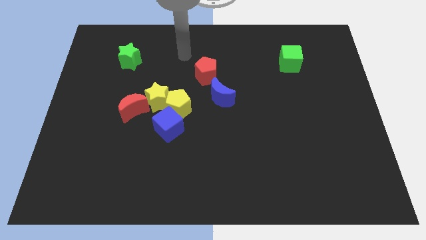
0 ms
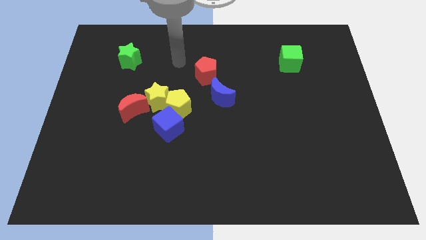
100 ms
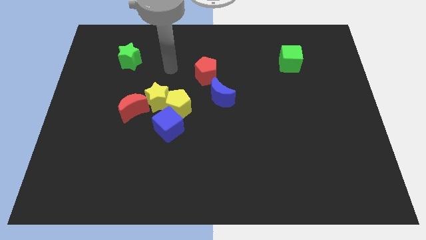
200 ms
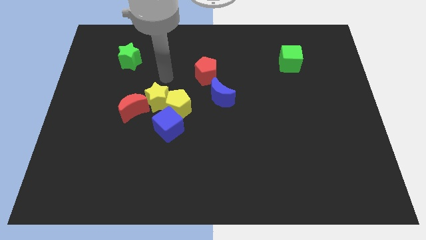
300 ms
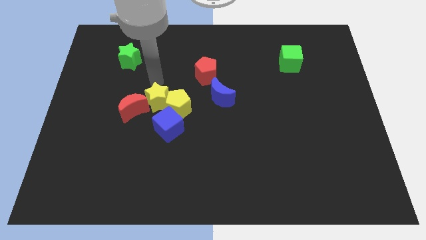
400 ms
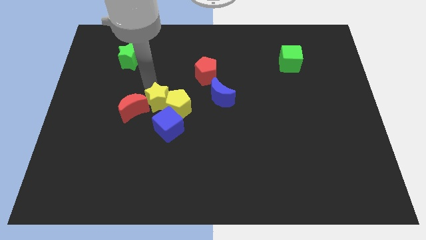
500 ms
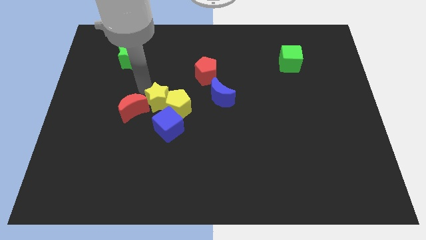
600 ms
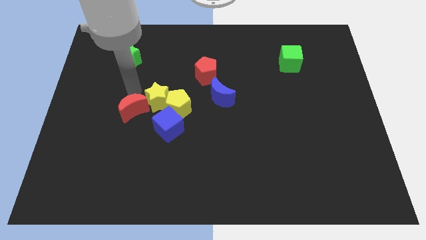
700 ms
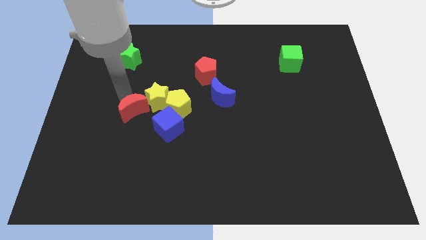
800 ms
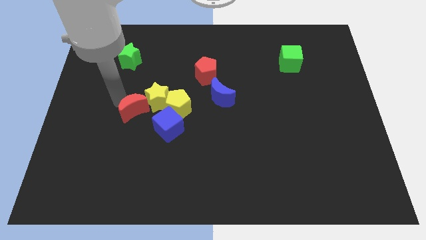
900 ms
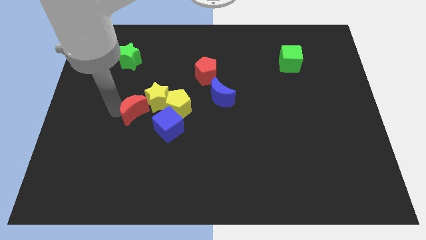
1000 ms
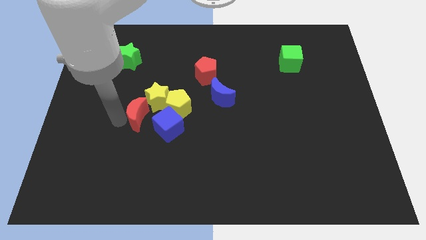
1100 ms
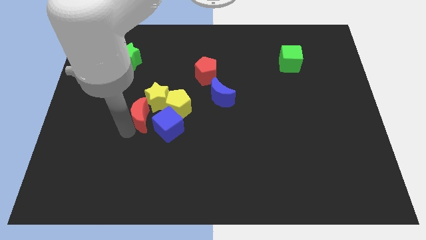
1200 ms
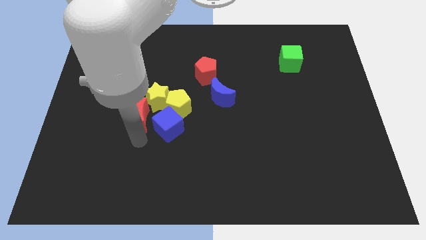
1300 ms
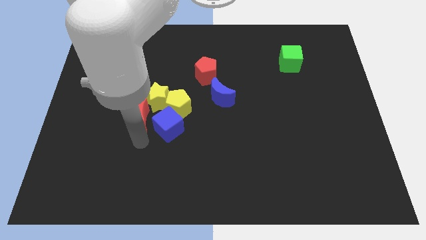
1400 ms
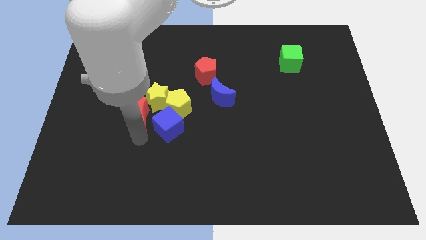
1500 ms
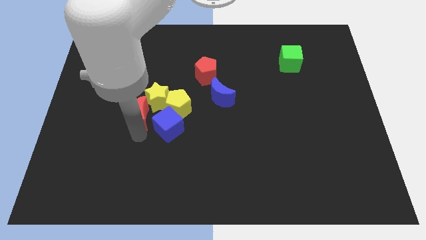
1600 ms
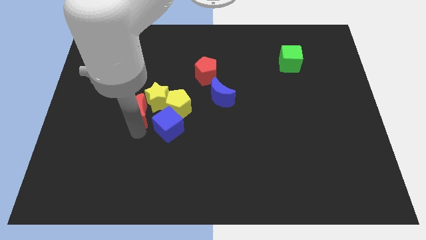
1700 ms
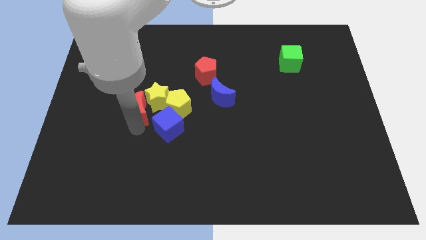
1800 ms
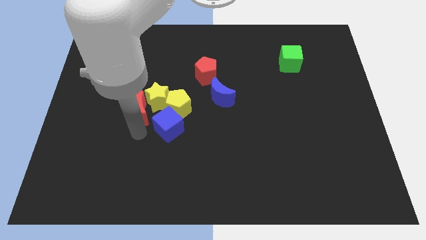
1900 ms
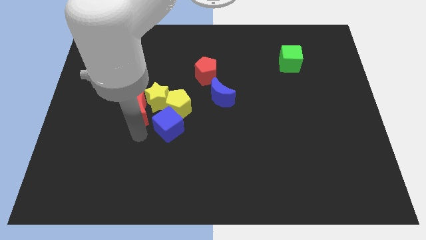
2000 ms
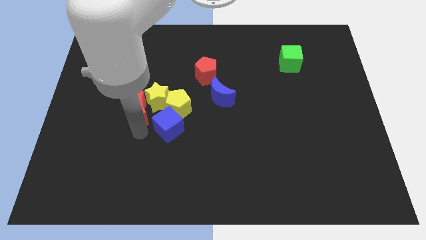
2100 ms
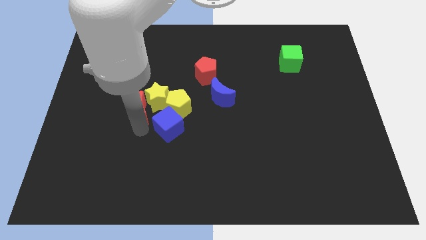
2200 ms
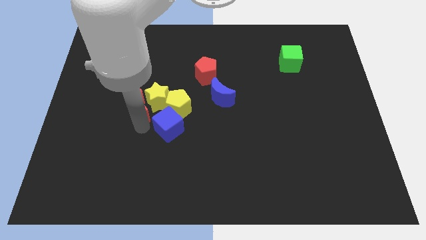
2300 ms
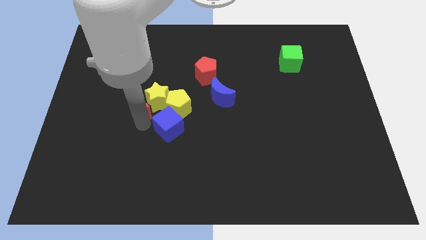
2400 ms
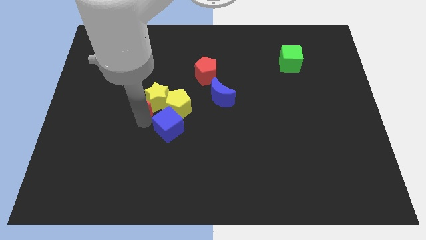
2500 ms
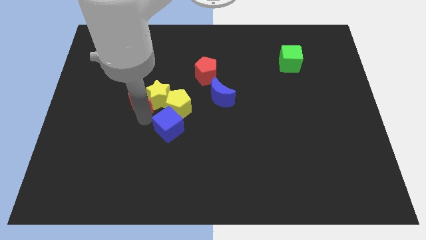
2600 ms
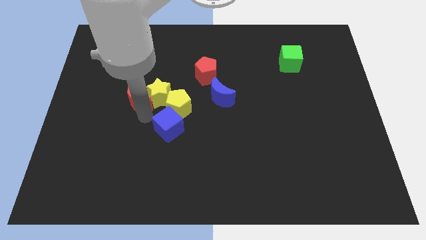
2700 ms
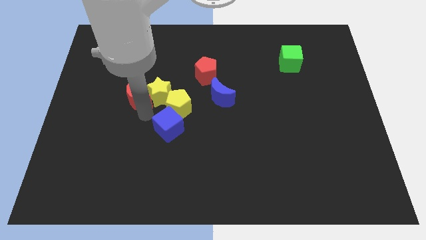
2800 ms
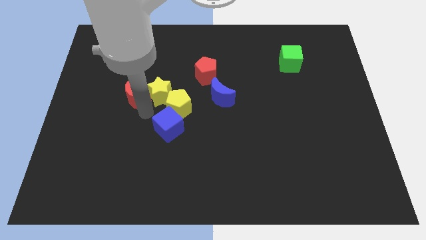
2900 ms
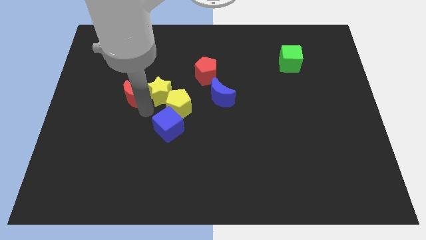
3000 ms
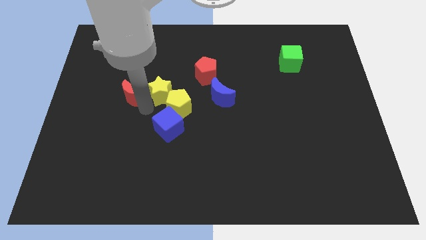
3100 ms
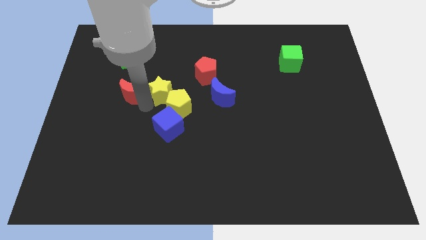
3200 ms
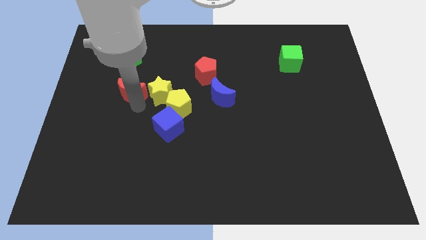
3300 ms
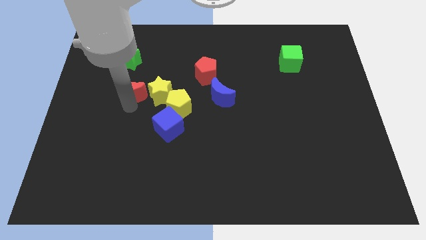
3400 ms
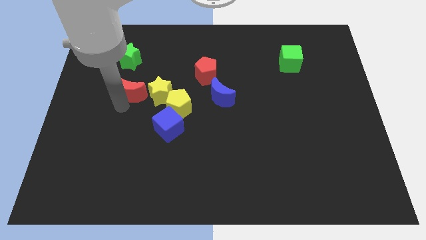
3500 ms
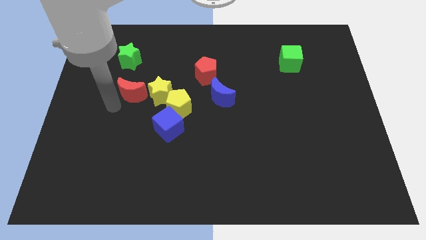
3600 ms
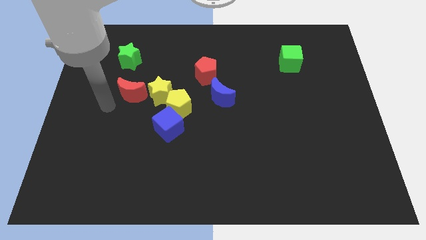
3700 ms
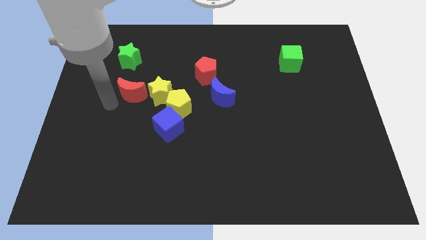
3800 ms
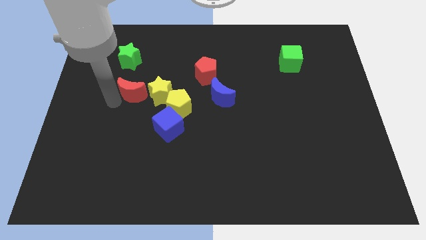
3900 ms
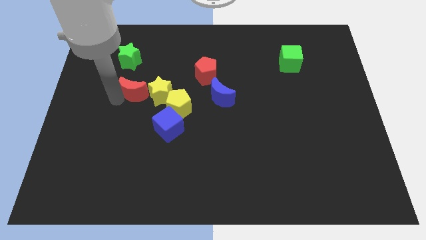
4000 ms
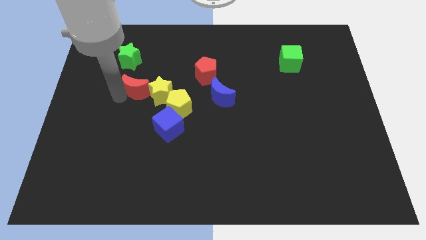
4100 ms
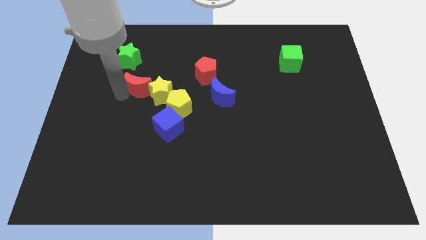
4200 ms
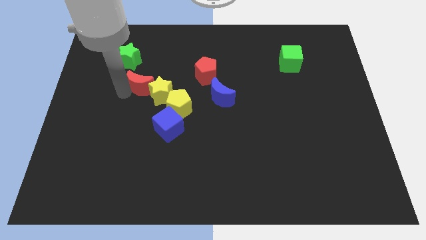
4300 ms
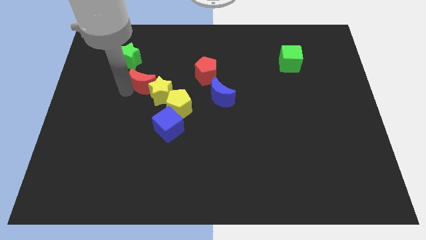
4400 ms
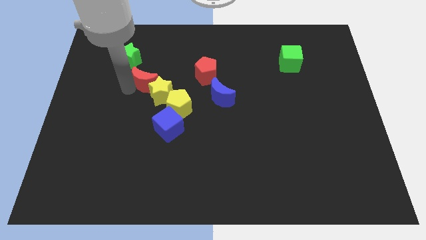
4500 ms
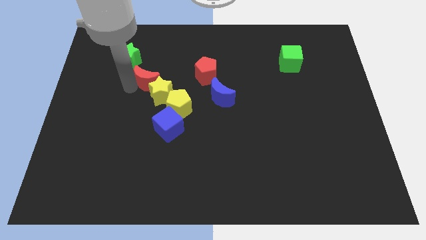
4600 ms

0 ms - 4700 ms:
move the red moon upwards and then to the right a little

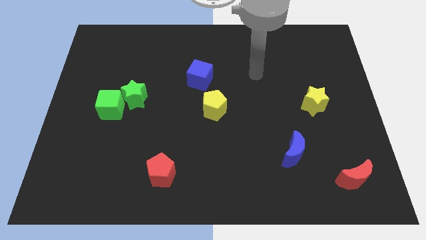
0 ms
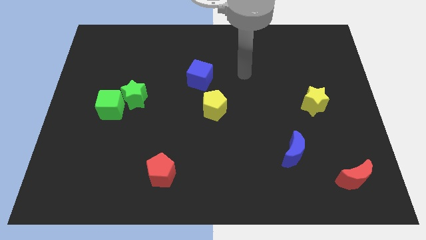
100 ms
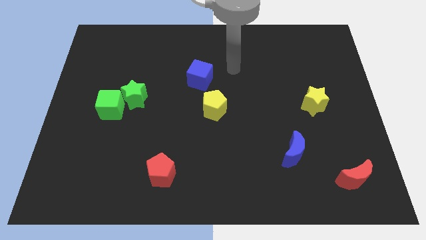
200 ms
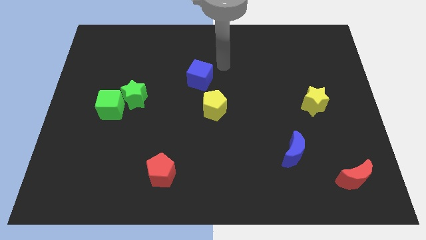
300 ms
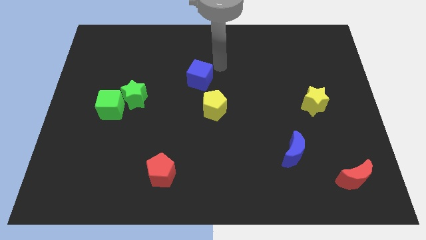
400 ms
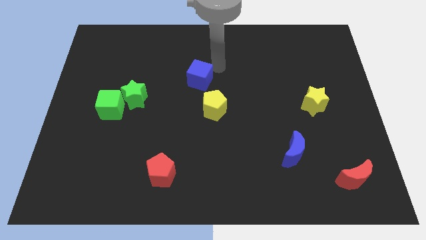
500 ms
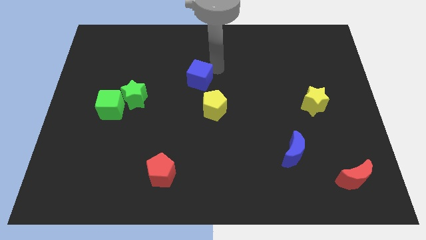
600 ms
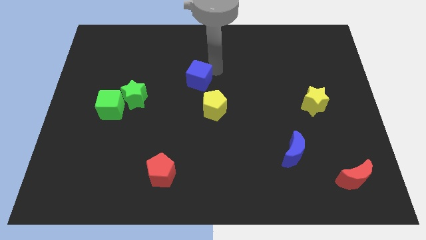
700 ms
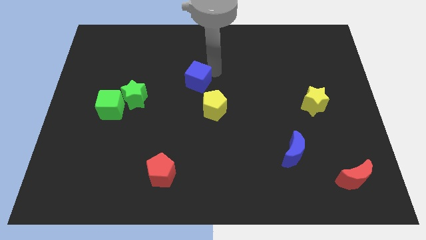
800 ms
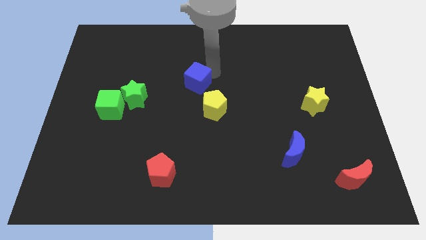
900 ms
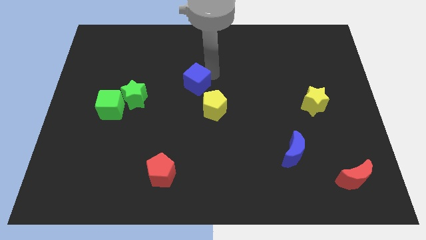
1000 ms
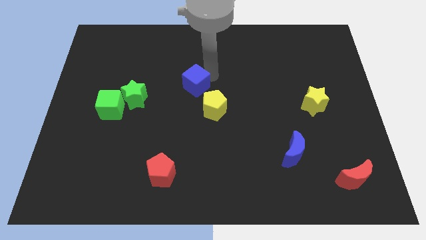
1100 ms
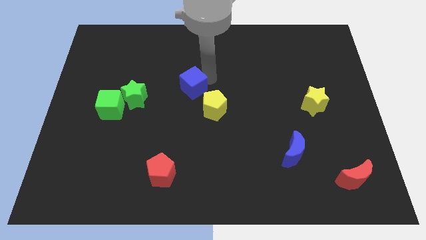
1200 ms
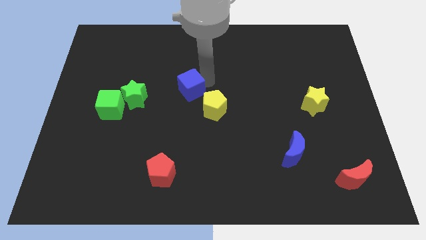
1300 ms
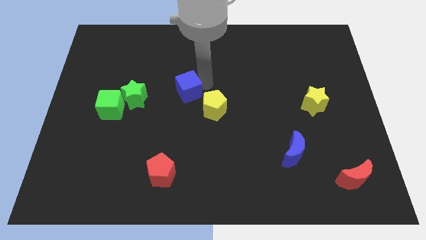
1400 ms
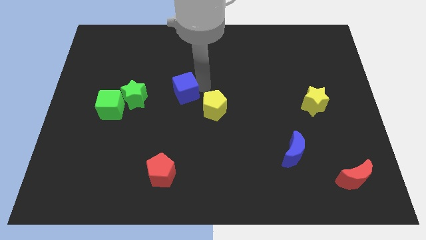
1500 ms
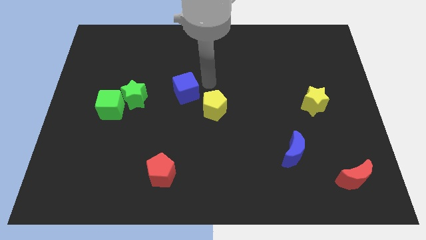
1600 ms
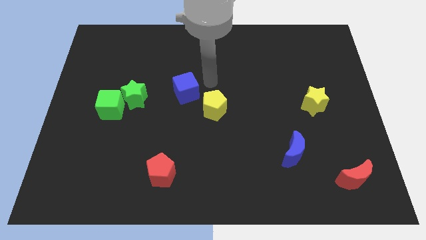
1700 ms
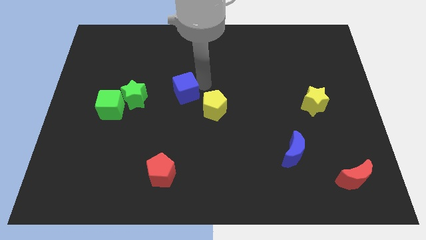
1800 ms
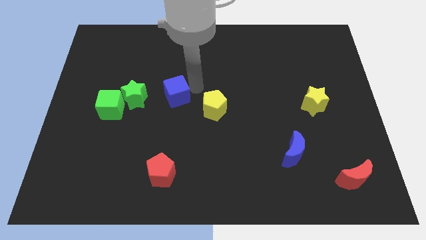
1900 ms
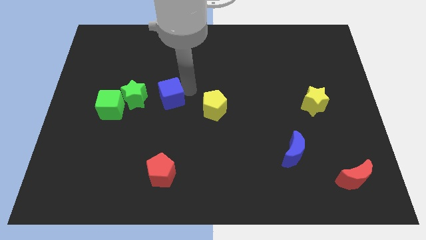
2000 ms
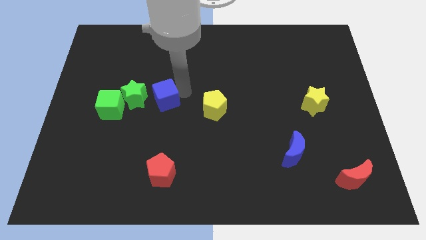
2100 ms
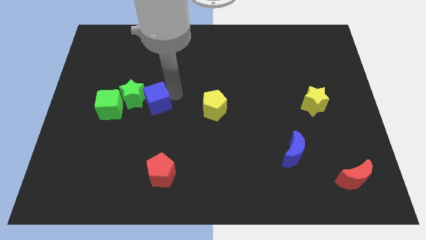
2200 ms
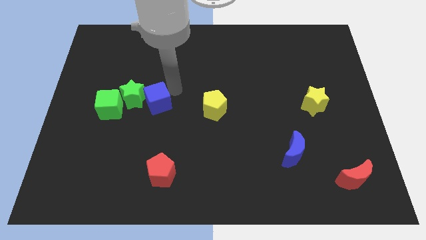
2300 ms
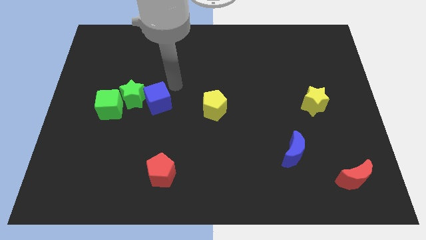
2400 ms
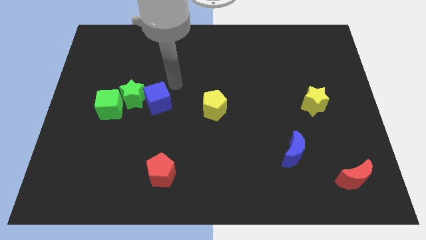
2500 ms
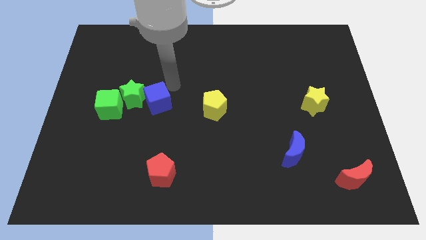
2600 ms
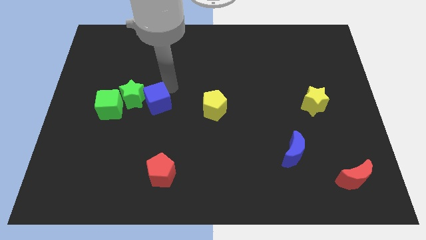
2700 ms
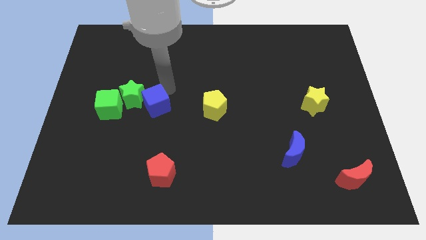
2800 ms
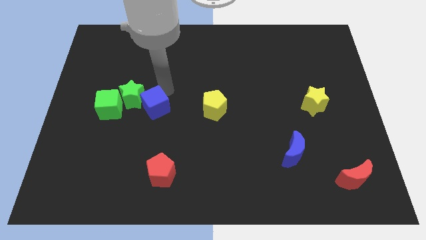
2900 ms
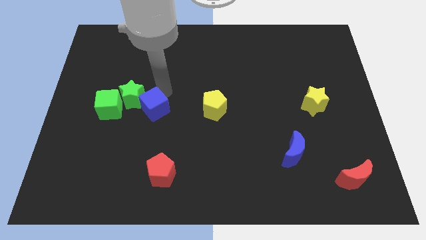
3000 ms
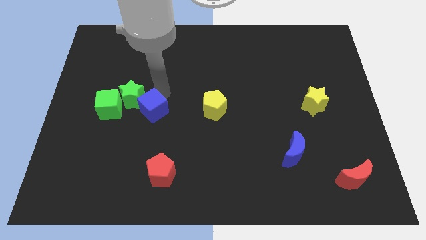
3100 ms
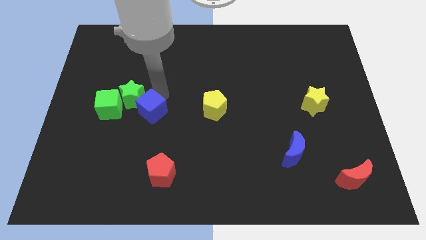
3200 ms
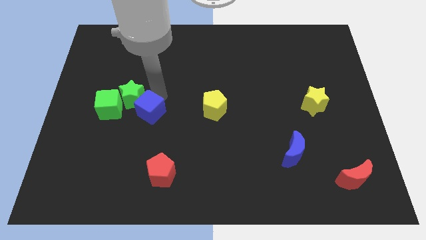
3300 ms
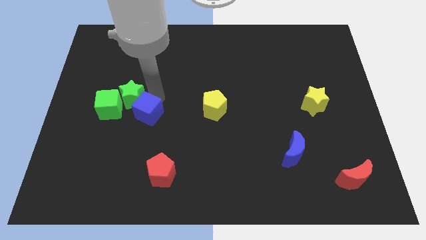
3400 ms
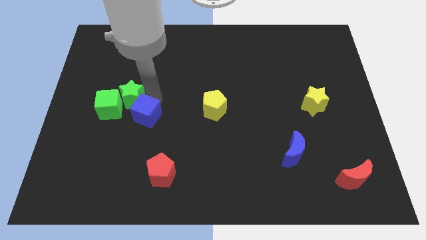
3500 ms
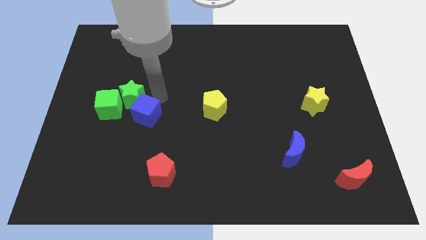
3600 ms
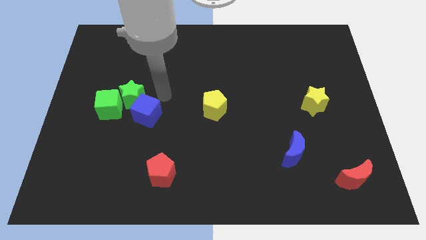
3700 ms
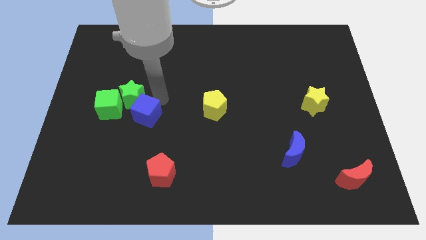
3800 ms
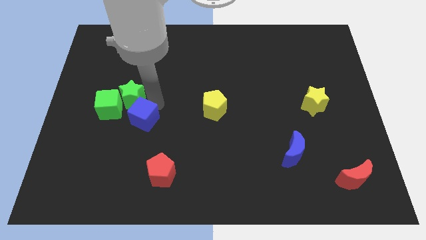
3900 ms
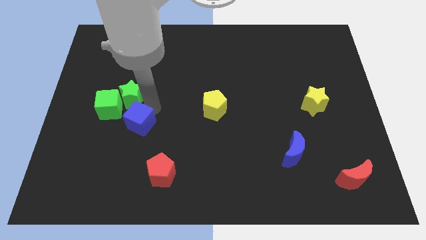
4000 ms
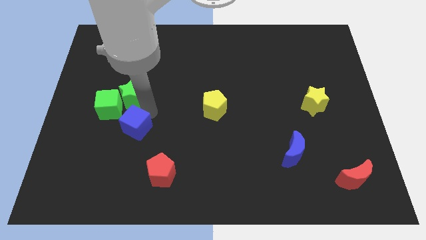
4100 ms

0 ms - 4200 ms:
move the blue cube diagonally downwards and to the left
